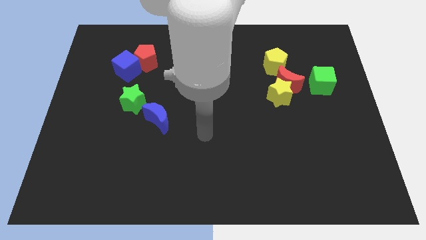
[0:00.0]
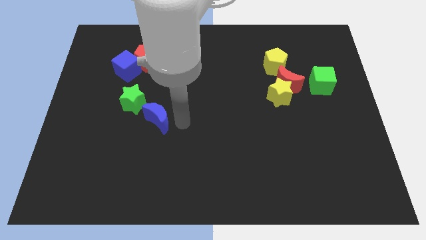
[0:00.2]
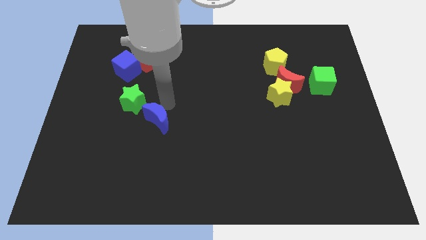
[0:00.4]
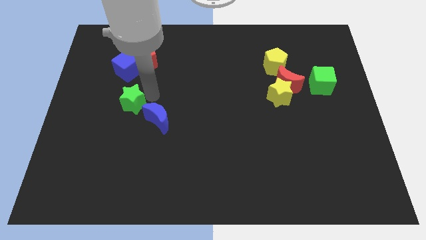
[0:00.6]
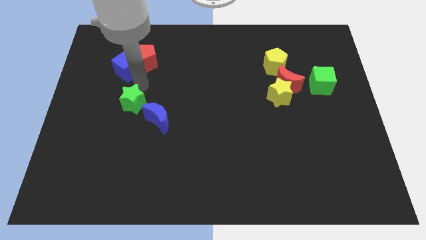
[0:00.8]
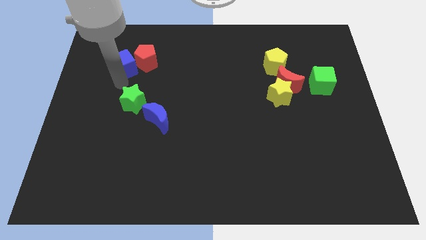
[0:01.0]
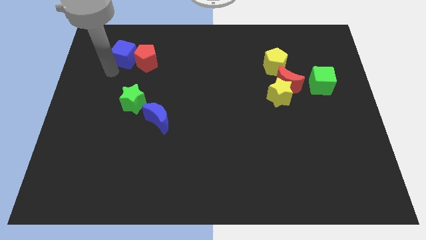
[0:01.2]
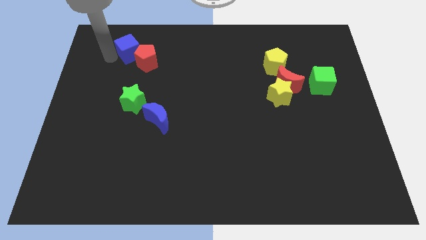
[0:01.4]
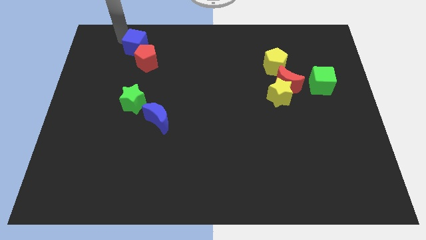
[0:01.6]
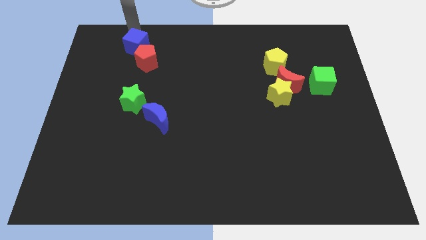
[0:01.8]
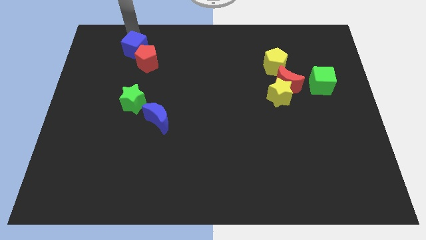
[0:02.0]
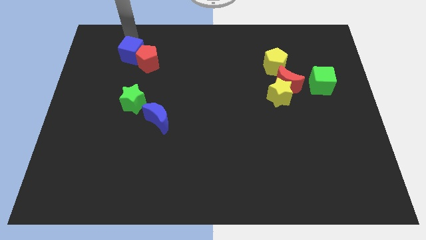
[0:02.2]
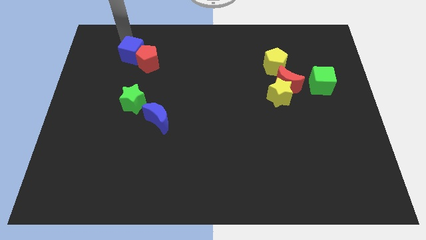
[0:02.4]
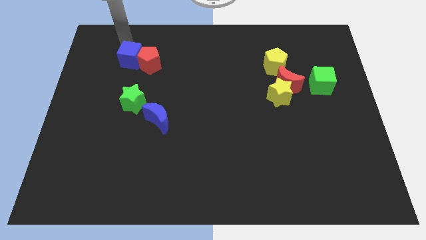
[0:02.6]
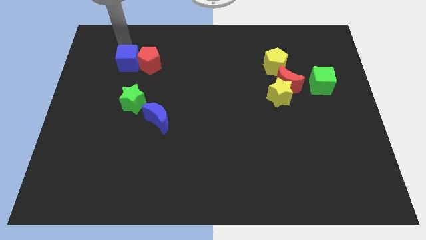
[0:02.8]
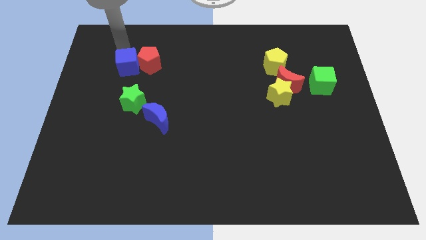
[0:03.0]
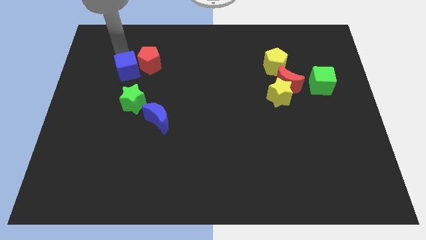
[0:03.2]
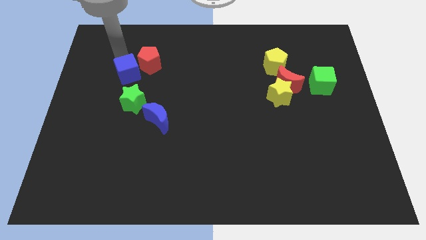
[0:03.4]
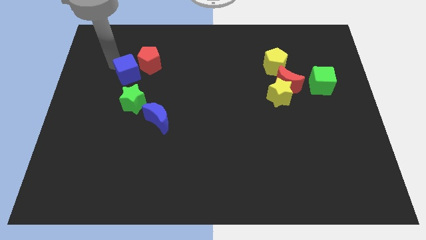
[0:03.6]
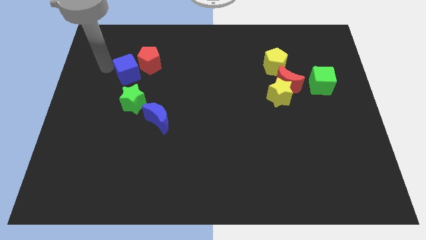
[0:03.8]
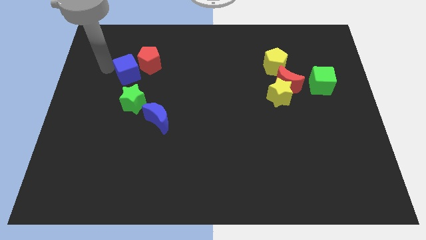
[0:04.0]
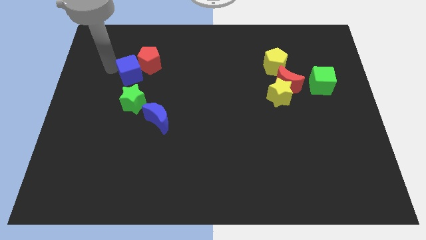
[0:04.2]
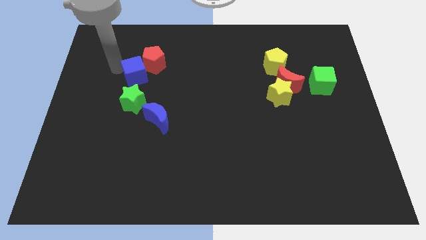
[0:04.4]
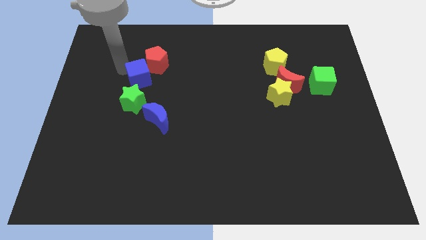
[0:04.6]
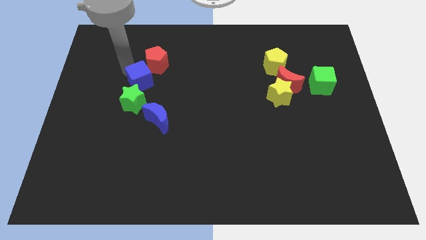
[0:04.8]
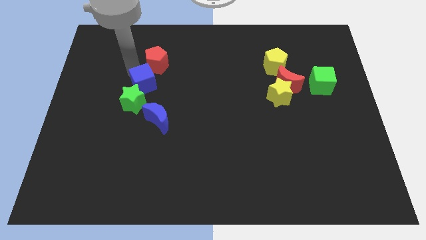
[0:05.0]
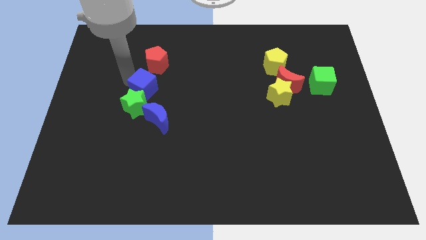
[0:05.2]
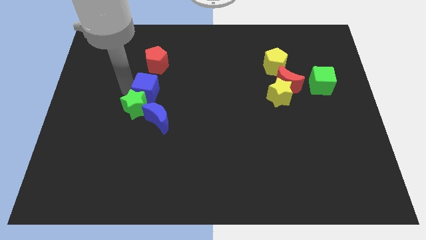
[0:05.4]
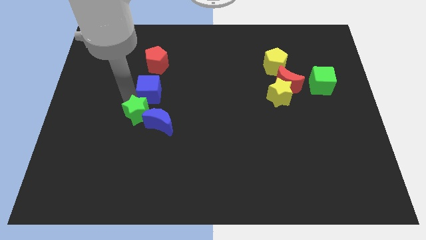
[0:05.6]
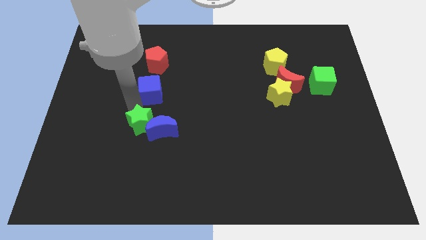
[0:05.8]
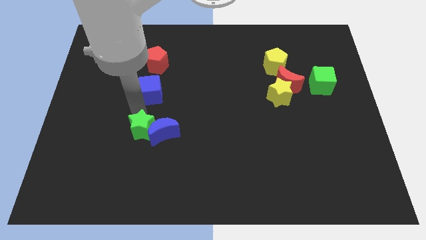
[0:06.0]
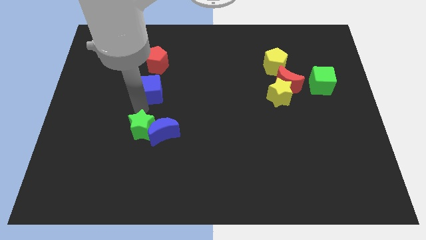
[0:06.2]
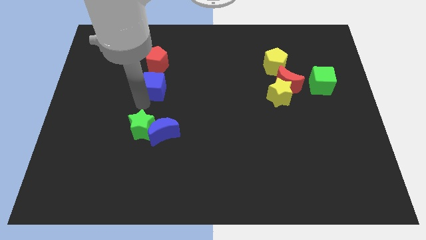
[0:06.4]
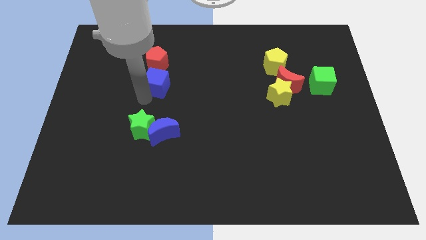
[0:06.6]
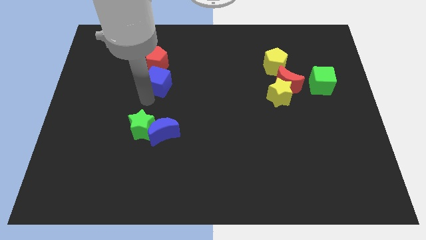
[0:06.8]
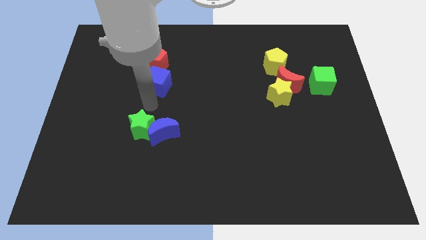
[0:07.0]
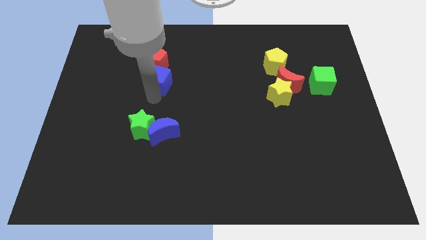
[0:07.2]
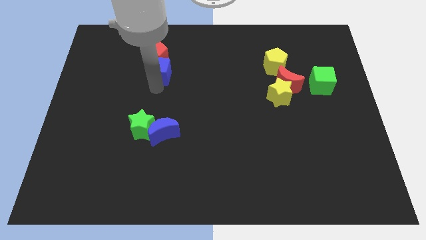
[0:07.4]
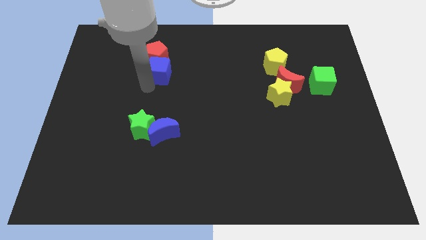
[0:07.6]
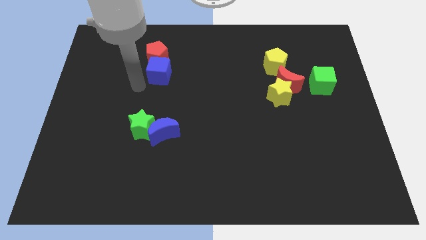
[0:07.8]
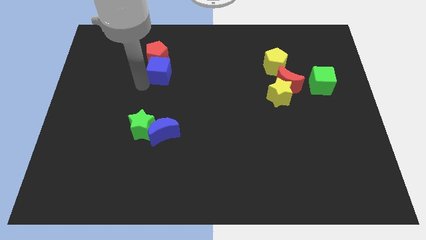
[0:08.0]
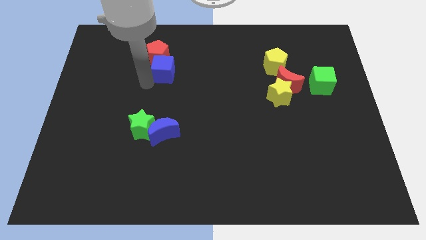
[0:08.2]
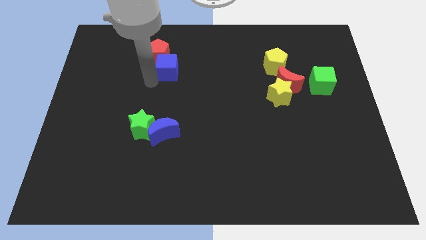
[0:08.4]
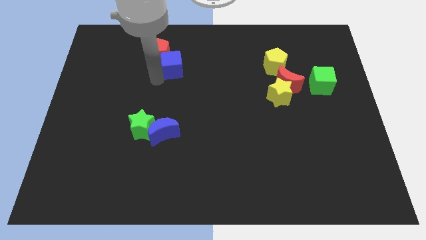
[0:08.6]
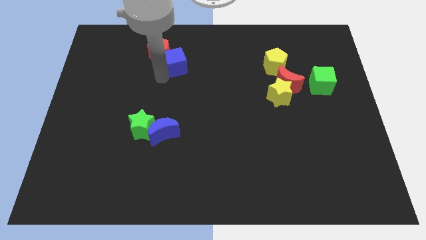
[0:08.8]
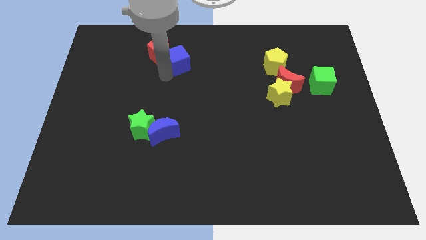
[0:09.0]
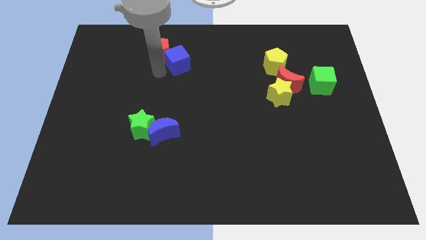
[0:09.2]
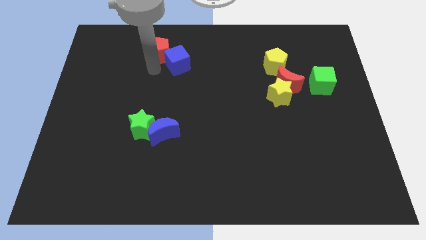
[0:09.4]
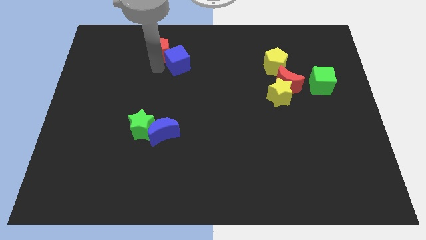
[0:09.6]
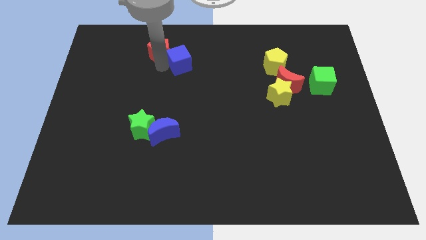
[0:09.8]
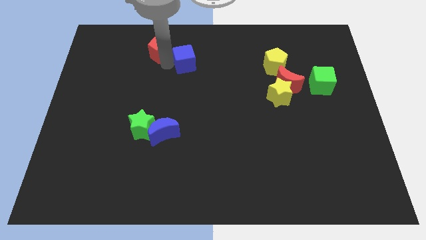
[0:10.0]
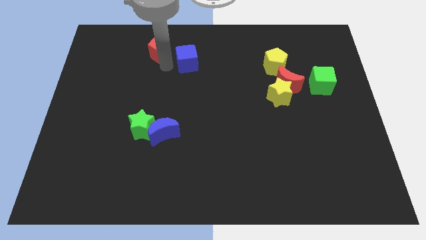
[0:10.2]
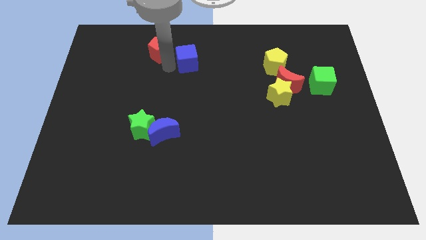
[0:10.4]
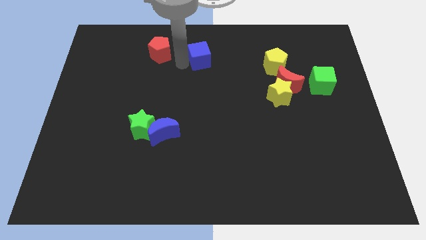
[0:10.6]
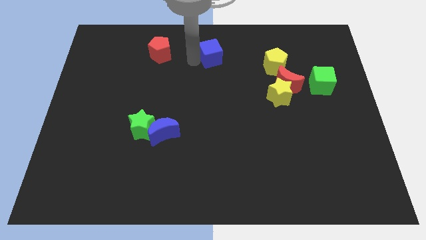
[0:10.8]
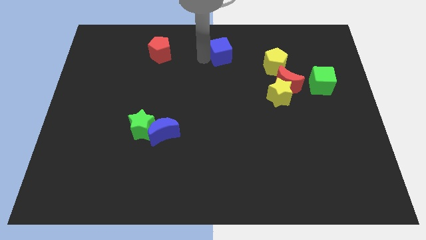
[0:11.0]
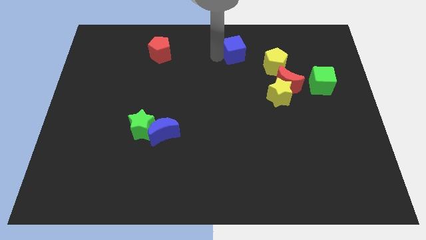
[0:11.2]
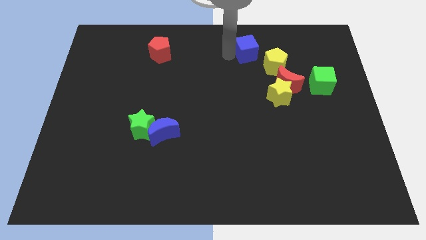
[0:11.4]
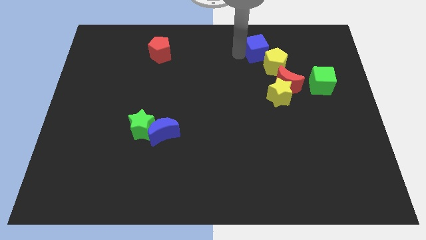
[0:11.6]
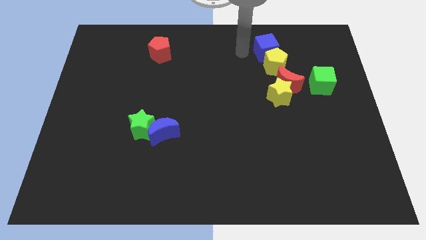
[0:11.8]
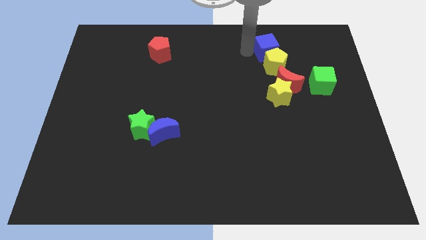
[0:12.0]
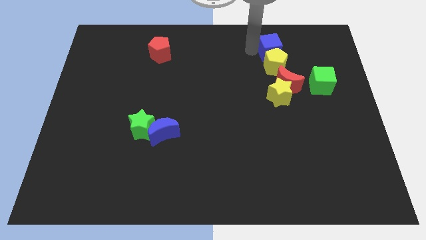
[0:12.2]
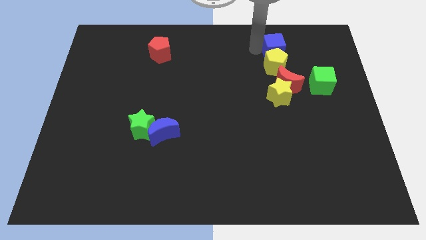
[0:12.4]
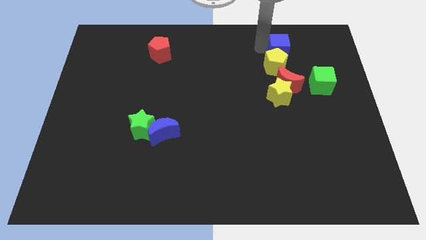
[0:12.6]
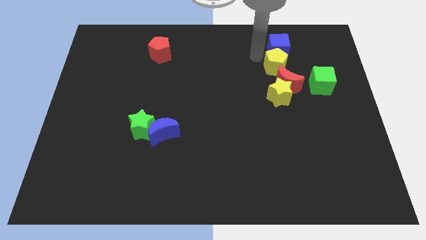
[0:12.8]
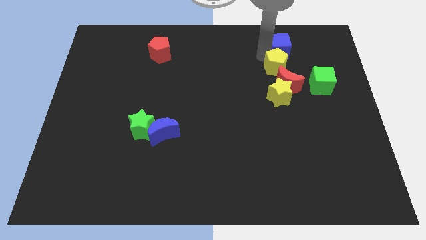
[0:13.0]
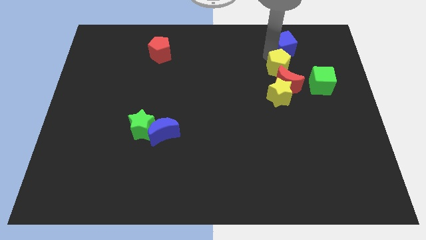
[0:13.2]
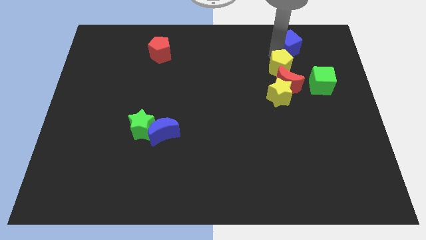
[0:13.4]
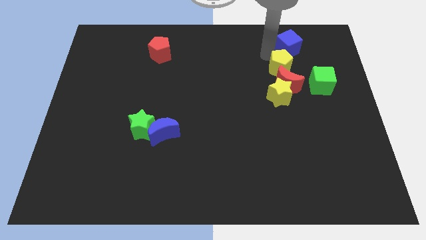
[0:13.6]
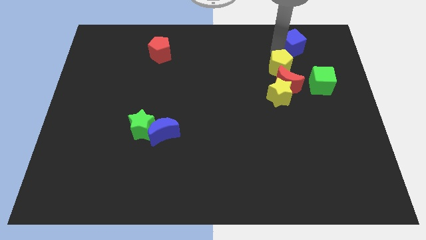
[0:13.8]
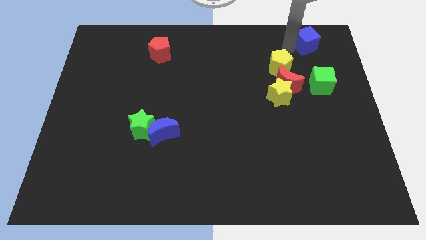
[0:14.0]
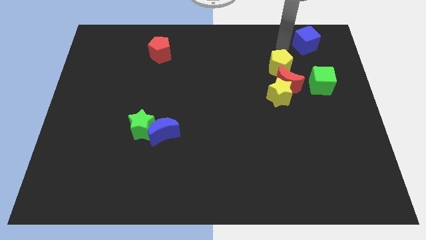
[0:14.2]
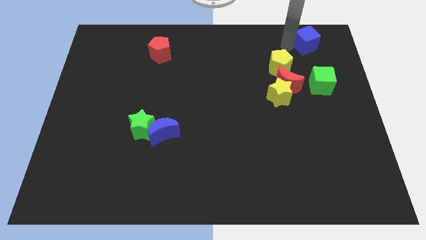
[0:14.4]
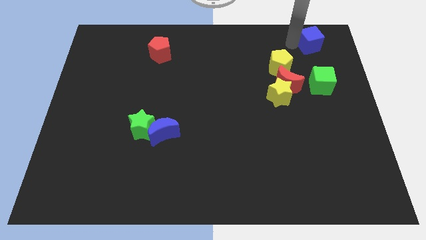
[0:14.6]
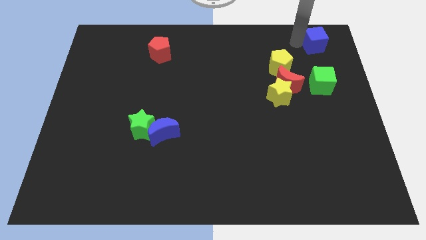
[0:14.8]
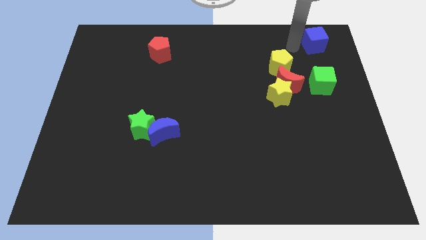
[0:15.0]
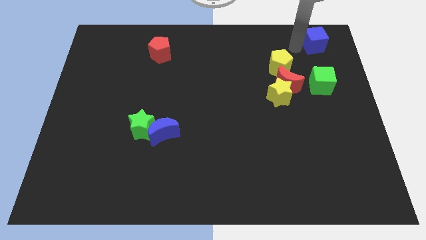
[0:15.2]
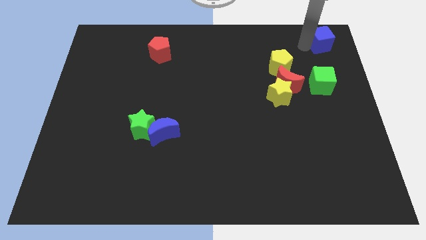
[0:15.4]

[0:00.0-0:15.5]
push the blue cube to the top right corner
